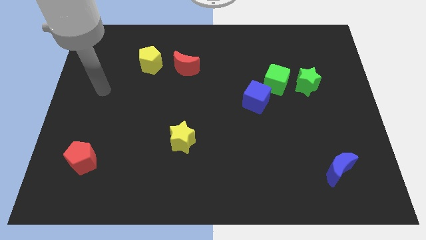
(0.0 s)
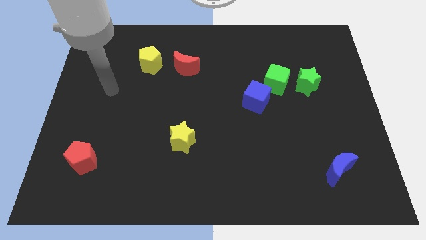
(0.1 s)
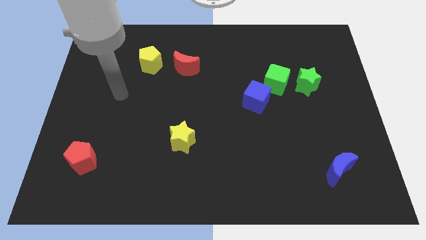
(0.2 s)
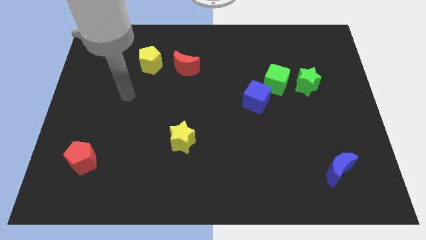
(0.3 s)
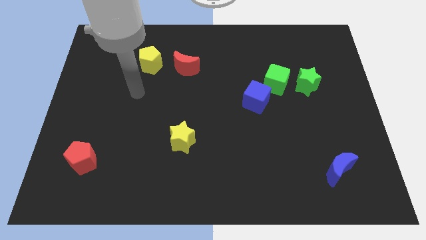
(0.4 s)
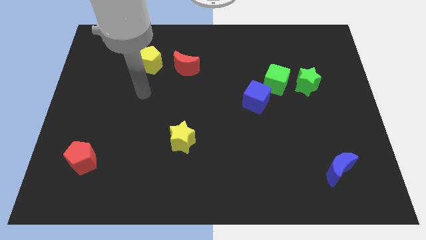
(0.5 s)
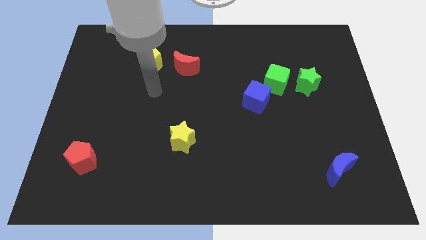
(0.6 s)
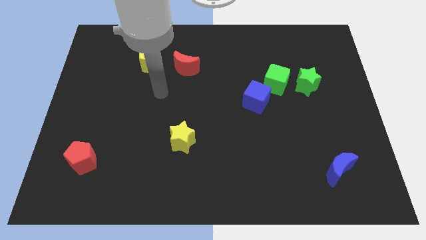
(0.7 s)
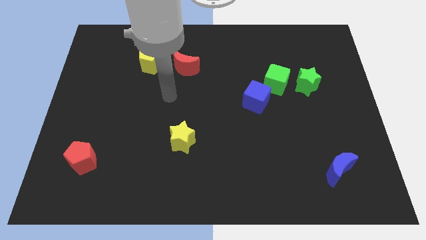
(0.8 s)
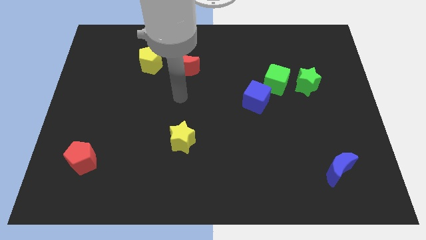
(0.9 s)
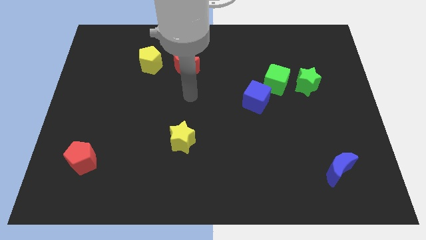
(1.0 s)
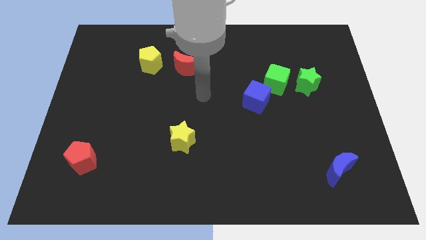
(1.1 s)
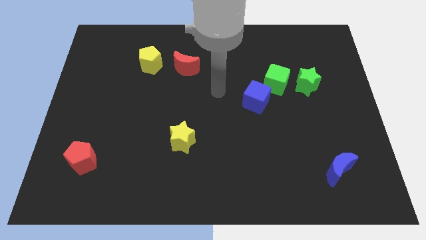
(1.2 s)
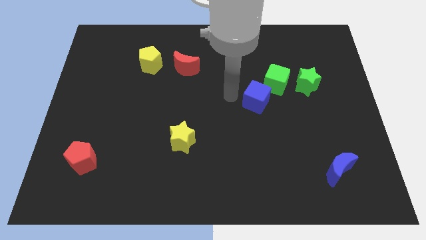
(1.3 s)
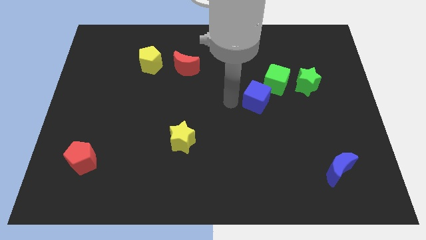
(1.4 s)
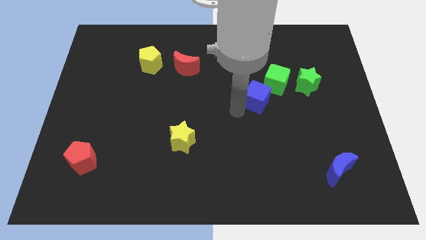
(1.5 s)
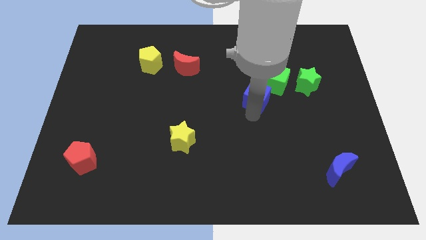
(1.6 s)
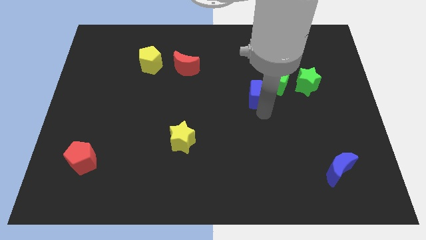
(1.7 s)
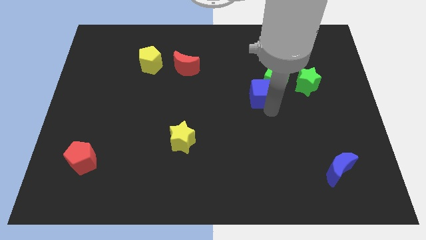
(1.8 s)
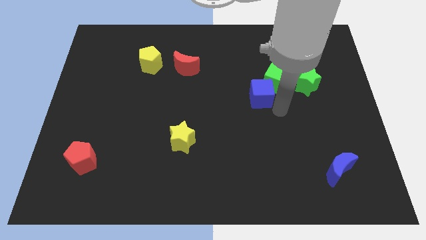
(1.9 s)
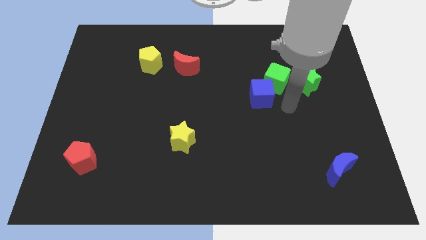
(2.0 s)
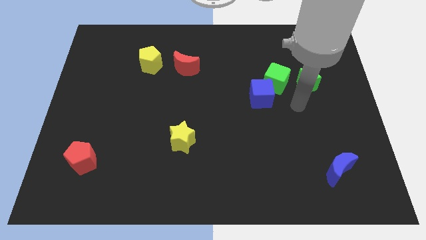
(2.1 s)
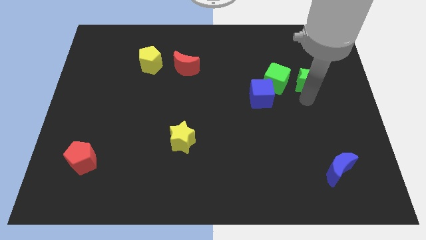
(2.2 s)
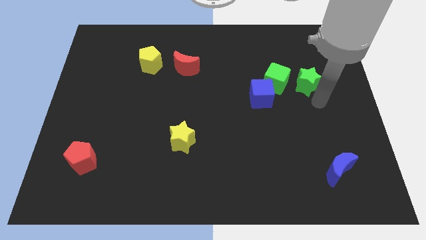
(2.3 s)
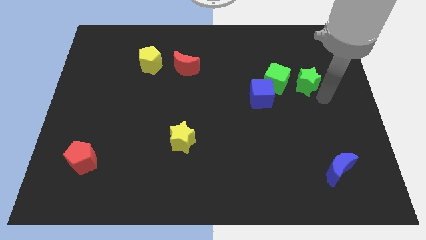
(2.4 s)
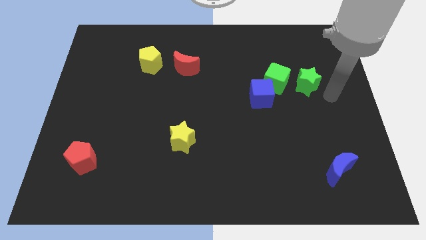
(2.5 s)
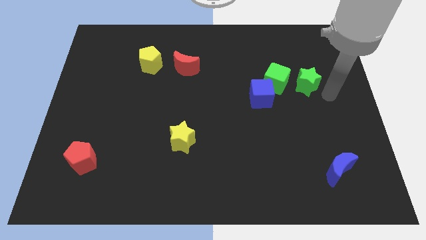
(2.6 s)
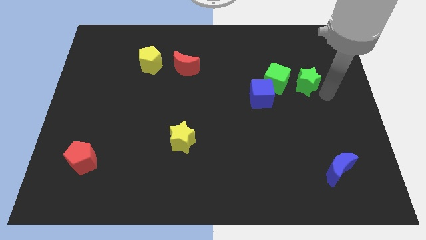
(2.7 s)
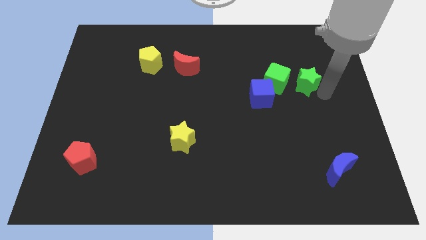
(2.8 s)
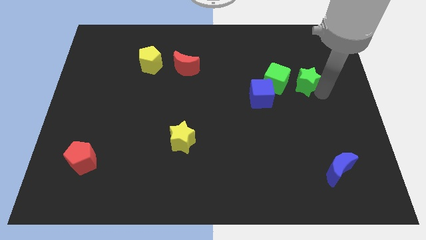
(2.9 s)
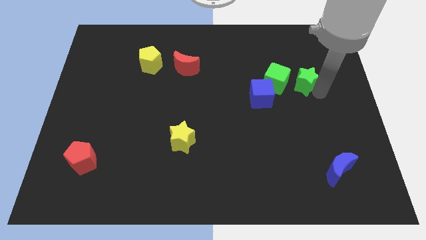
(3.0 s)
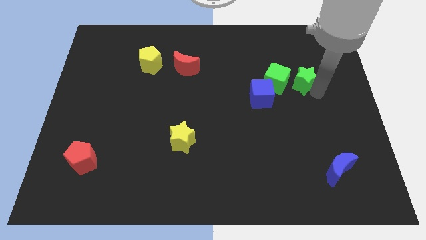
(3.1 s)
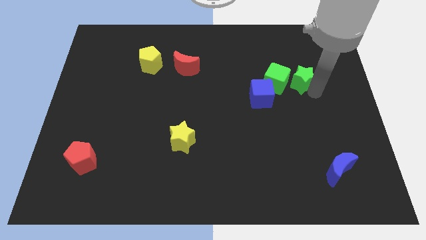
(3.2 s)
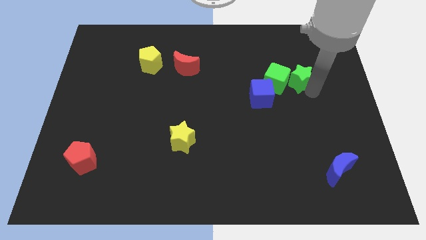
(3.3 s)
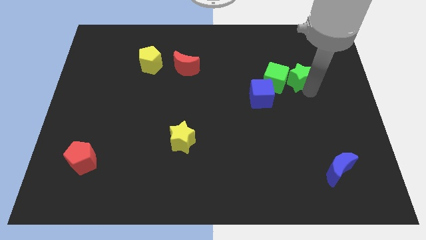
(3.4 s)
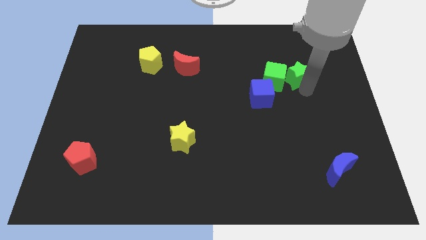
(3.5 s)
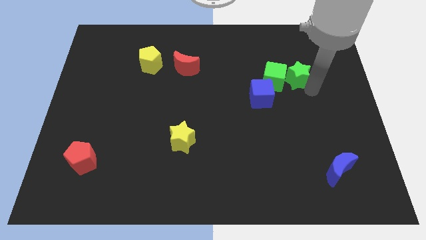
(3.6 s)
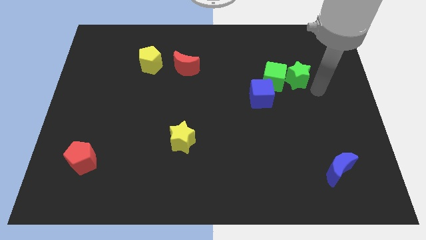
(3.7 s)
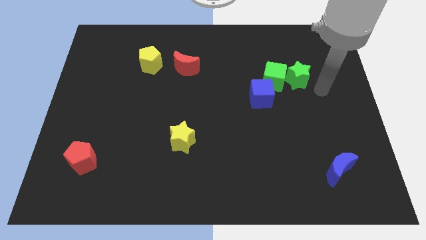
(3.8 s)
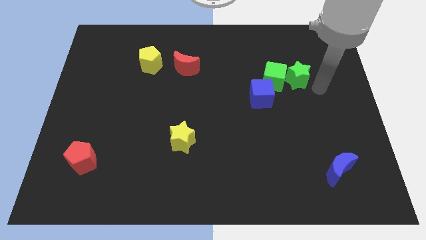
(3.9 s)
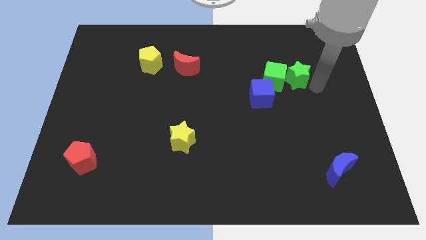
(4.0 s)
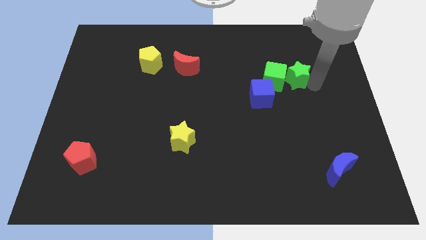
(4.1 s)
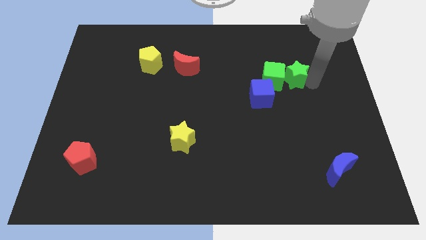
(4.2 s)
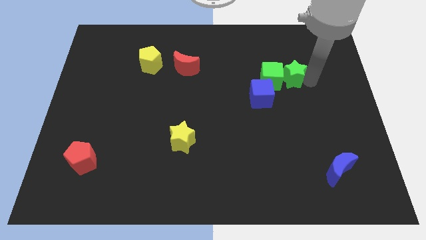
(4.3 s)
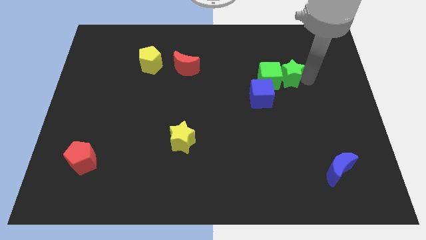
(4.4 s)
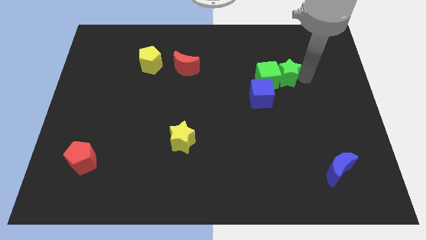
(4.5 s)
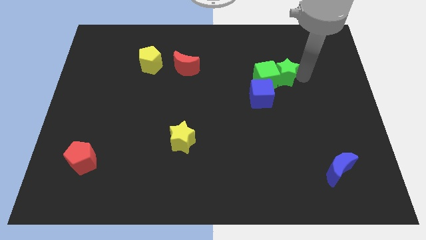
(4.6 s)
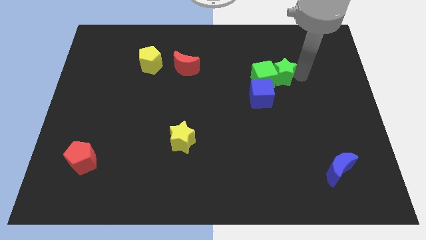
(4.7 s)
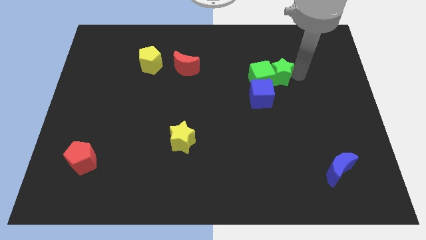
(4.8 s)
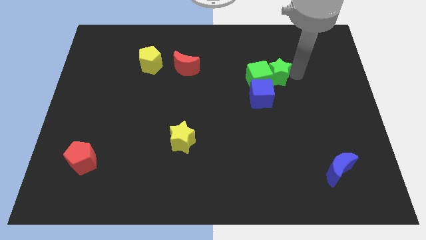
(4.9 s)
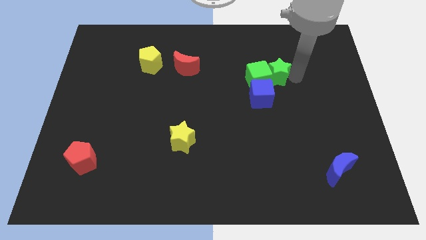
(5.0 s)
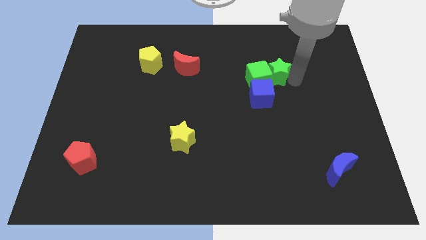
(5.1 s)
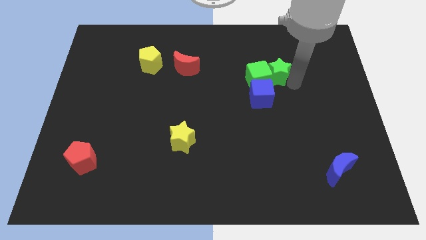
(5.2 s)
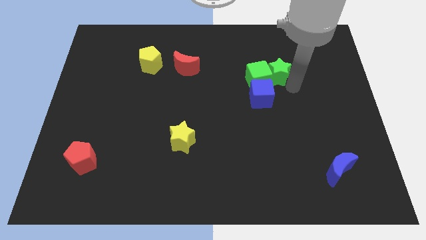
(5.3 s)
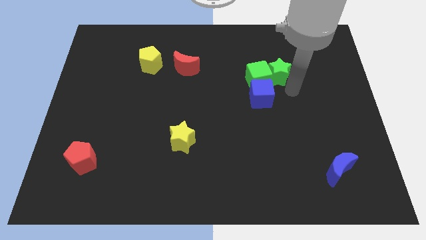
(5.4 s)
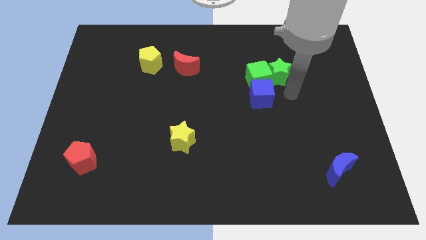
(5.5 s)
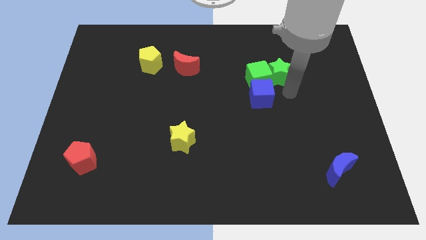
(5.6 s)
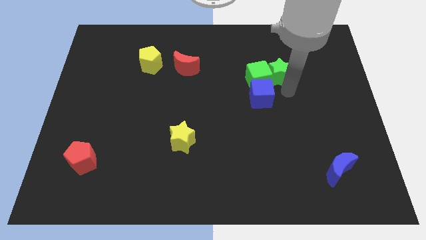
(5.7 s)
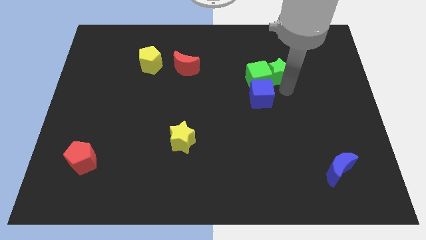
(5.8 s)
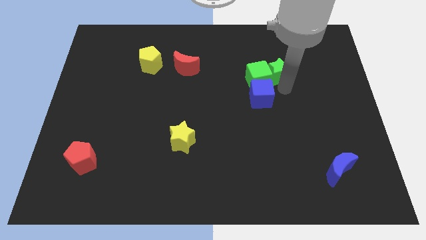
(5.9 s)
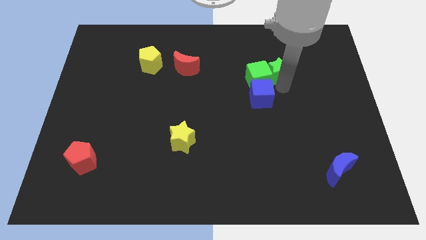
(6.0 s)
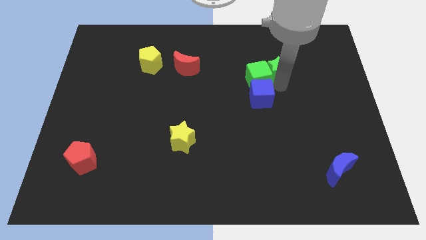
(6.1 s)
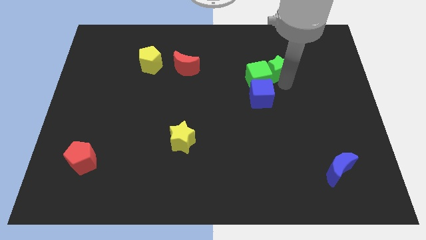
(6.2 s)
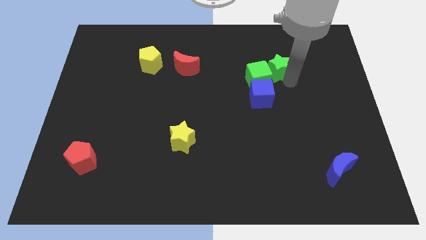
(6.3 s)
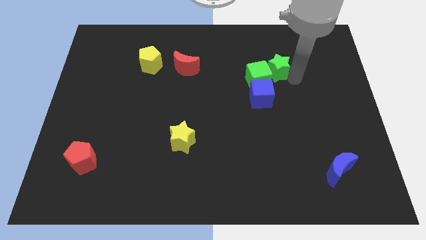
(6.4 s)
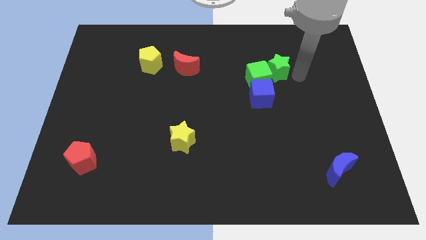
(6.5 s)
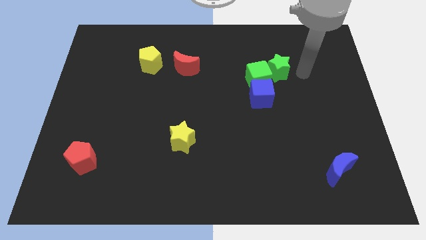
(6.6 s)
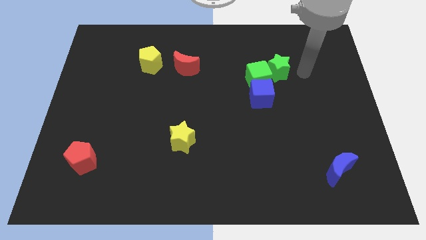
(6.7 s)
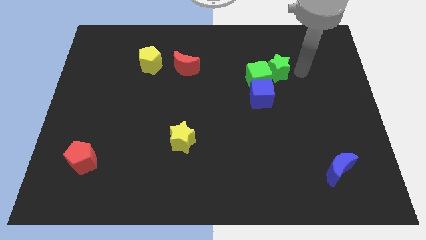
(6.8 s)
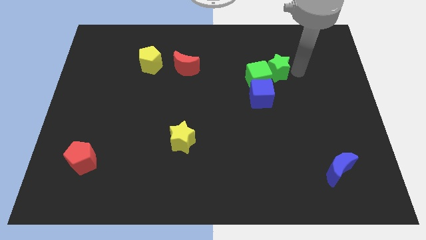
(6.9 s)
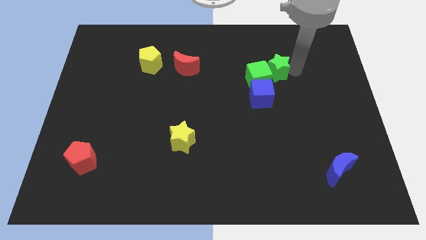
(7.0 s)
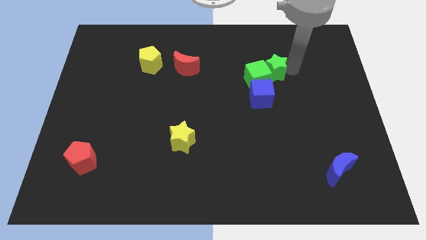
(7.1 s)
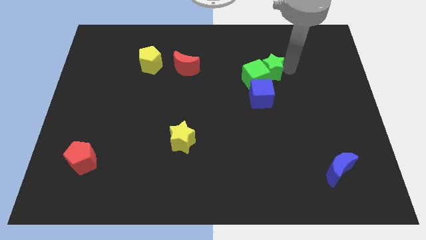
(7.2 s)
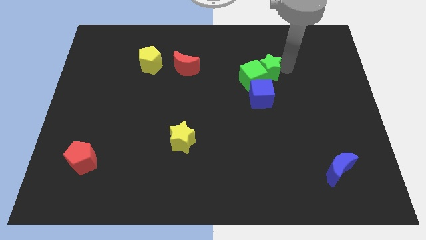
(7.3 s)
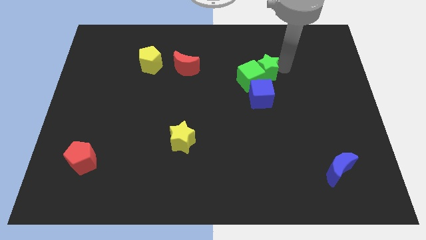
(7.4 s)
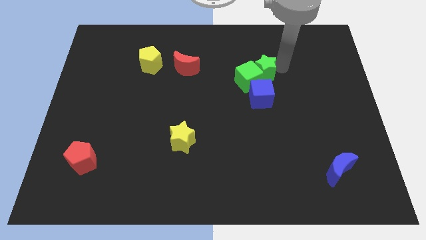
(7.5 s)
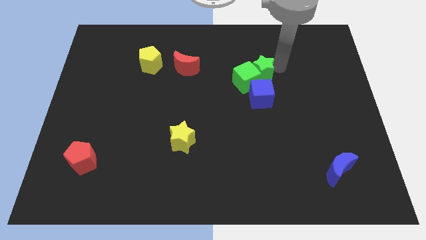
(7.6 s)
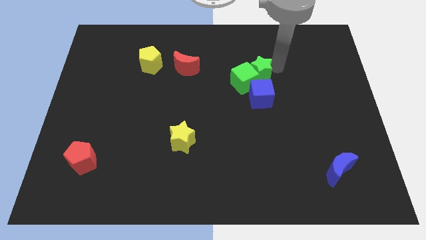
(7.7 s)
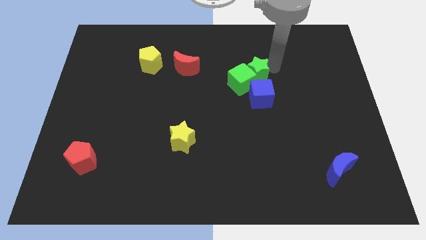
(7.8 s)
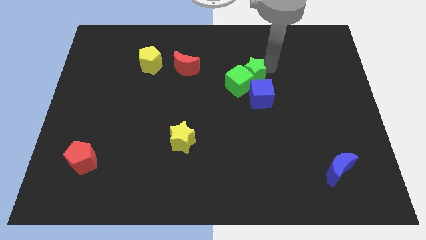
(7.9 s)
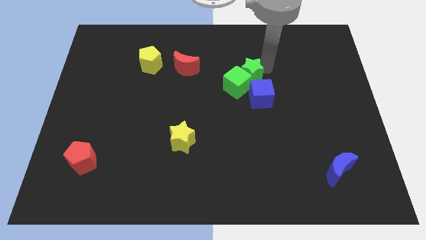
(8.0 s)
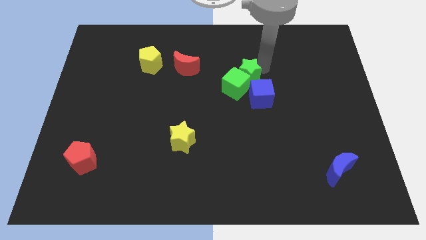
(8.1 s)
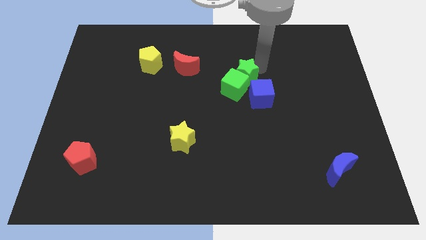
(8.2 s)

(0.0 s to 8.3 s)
put the green star right of the red moon
